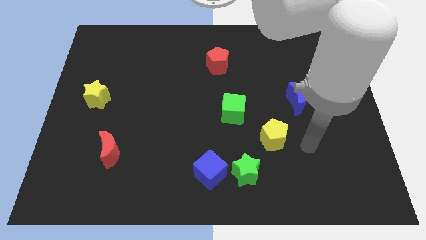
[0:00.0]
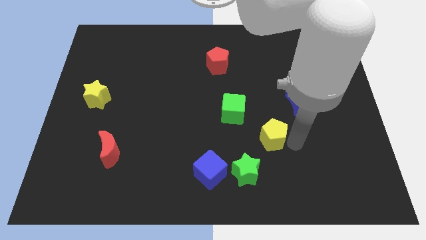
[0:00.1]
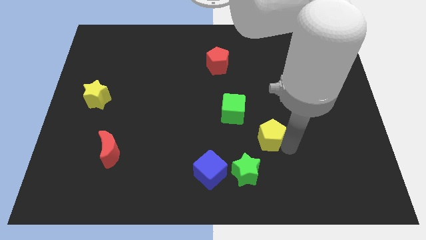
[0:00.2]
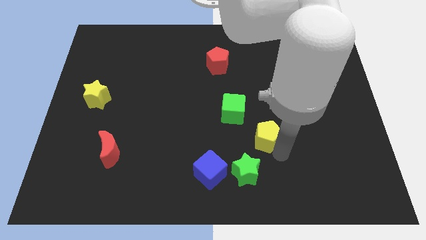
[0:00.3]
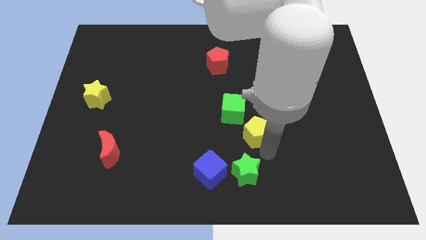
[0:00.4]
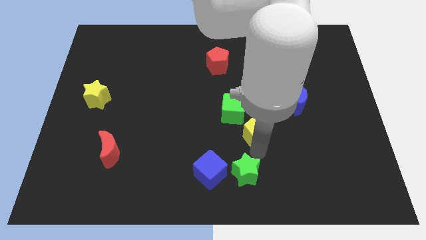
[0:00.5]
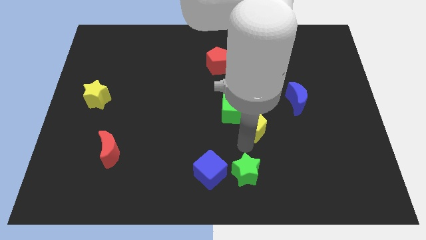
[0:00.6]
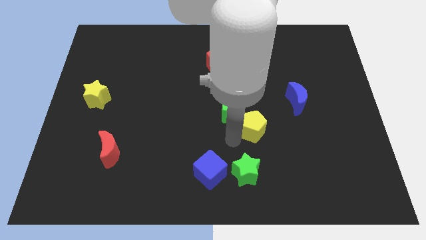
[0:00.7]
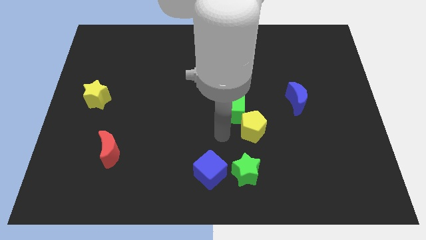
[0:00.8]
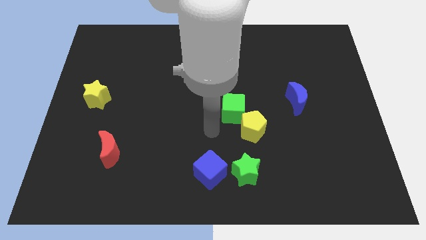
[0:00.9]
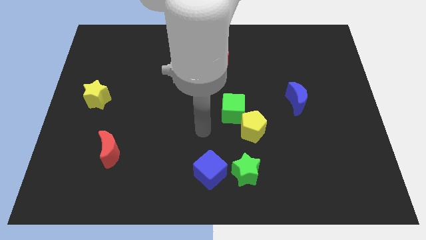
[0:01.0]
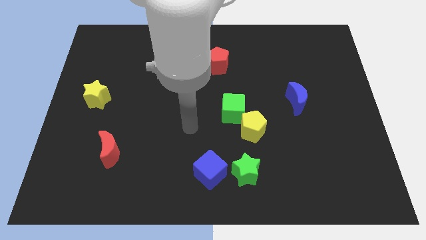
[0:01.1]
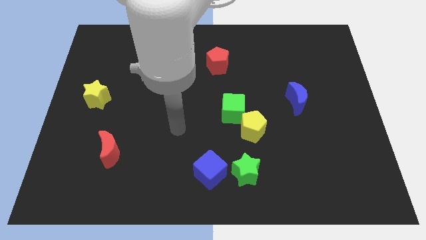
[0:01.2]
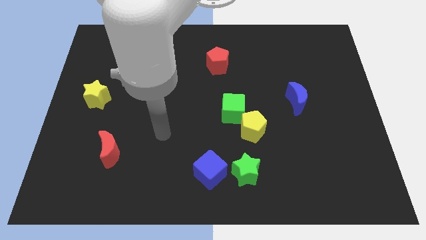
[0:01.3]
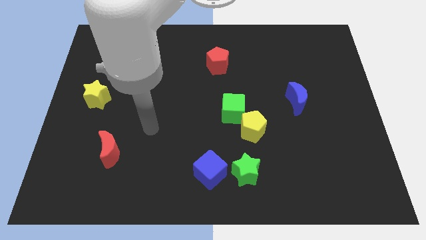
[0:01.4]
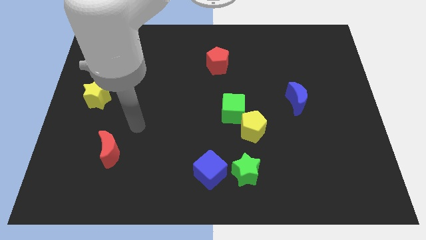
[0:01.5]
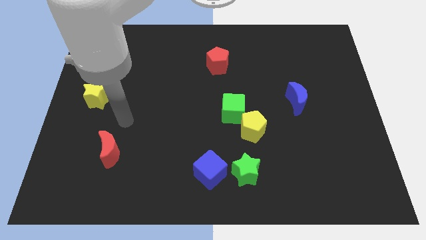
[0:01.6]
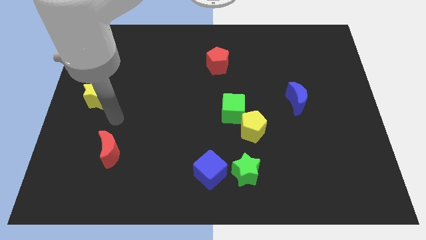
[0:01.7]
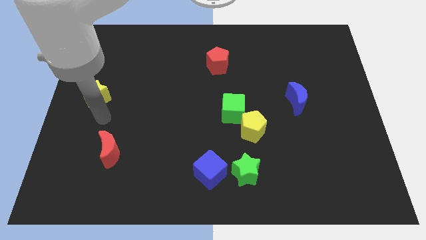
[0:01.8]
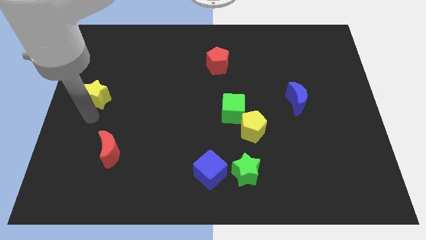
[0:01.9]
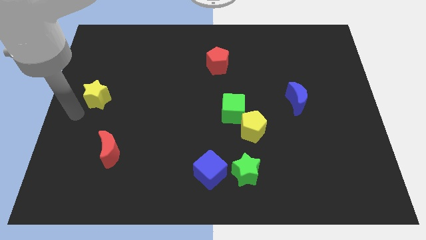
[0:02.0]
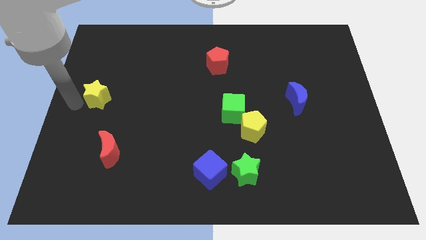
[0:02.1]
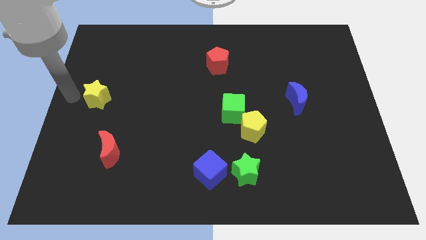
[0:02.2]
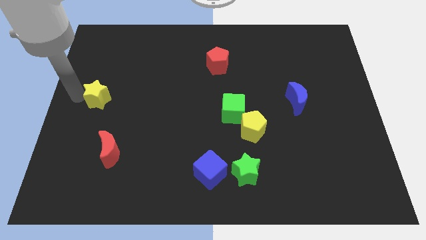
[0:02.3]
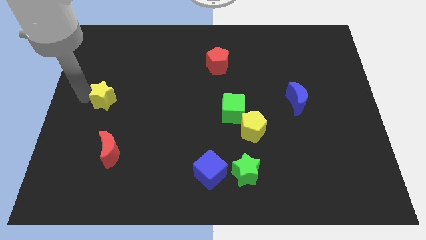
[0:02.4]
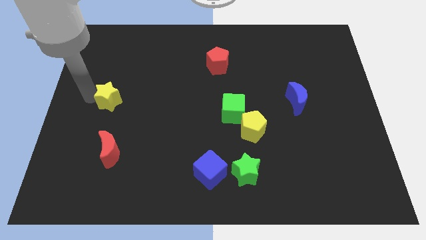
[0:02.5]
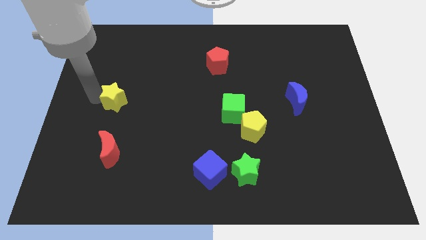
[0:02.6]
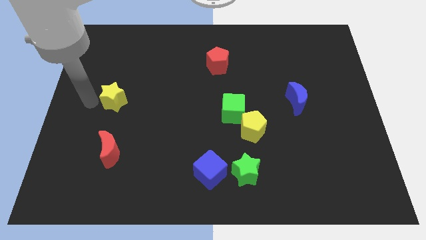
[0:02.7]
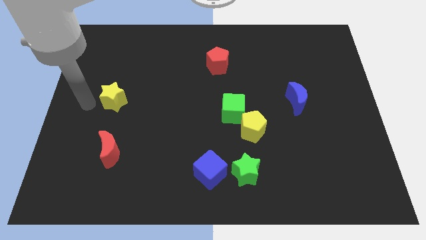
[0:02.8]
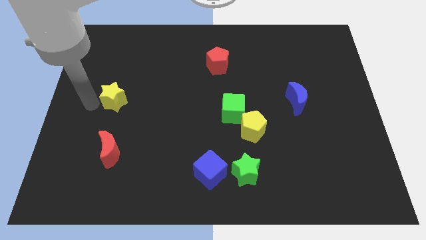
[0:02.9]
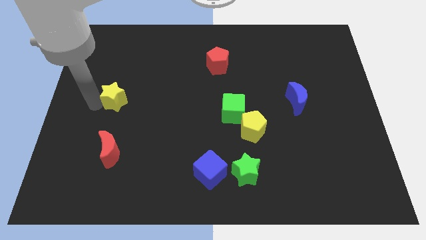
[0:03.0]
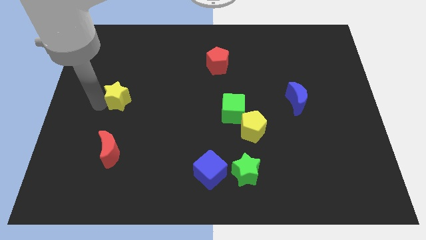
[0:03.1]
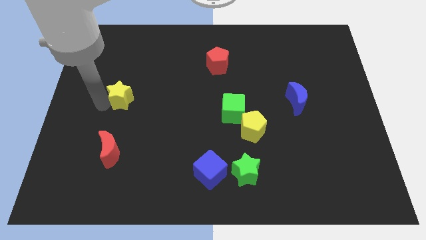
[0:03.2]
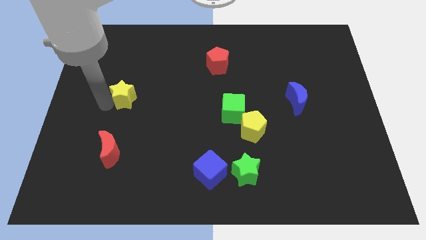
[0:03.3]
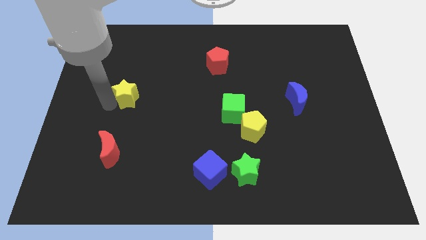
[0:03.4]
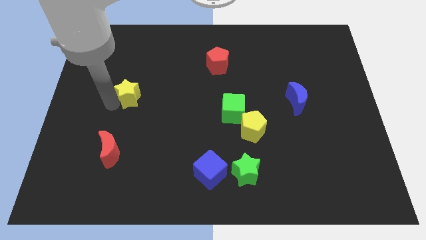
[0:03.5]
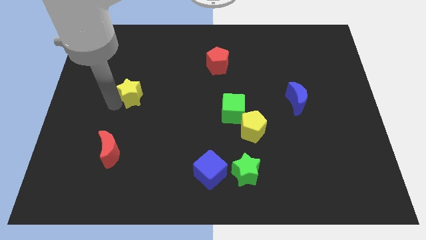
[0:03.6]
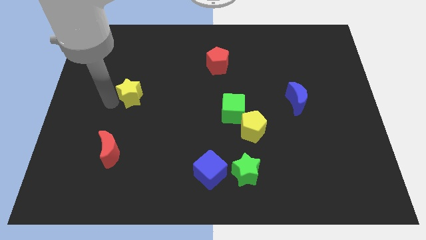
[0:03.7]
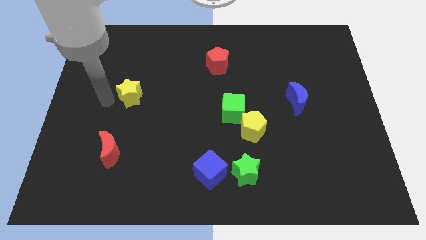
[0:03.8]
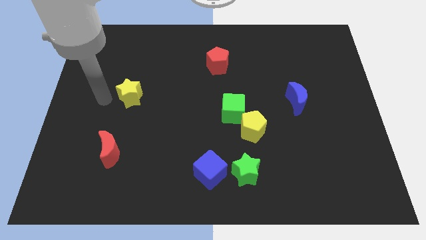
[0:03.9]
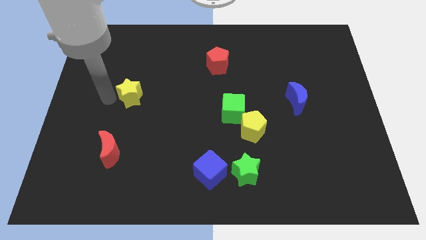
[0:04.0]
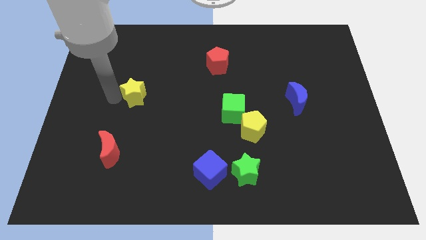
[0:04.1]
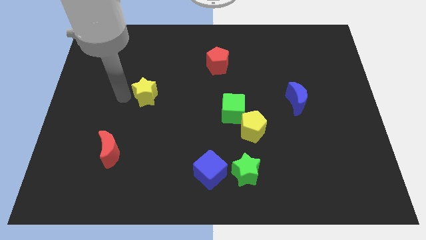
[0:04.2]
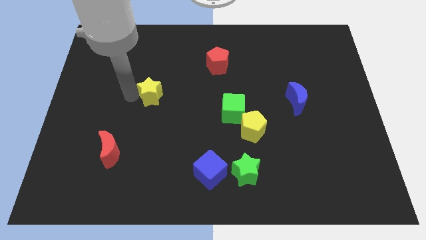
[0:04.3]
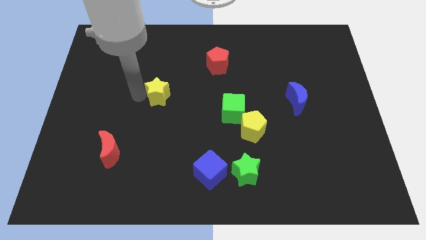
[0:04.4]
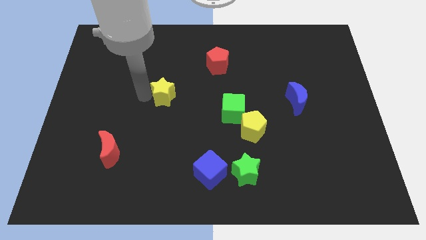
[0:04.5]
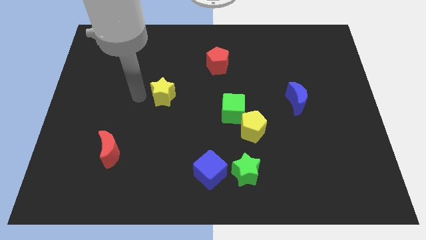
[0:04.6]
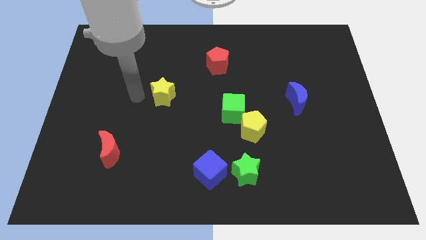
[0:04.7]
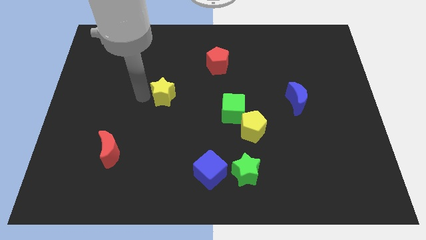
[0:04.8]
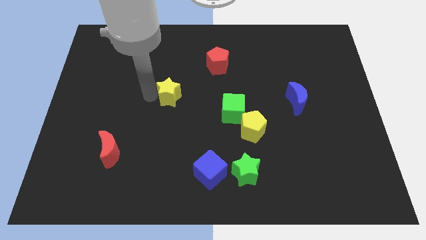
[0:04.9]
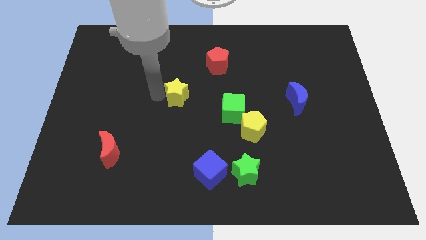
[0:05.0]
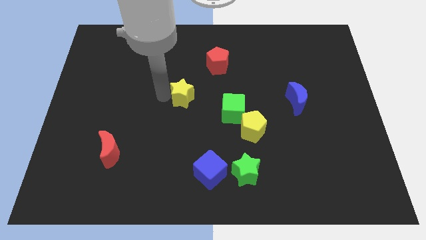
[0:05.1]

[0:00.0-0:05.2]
push the yellow star to the right

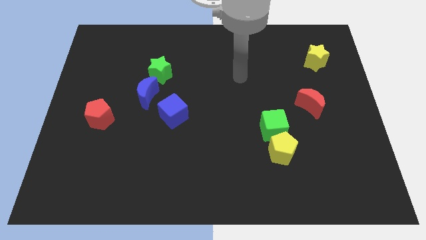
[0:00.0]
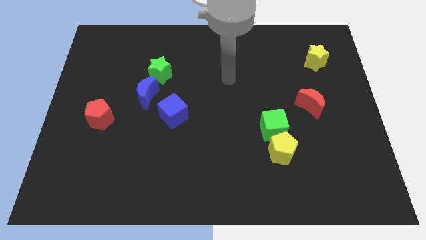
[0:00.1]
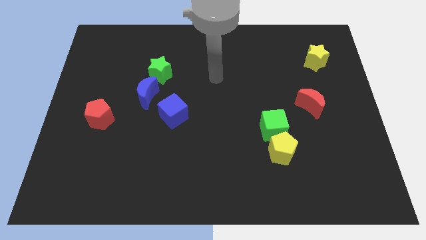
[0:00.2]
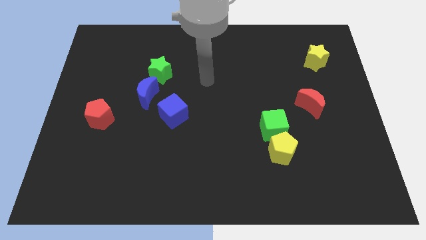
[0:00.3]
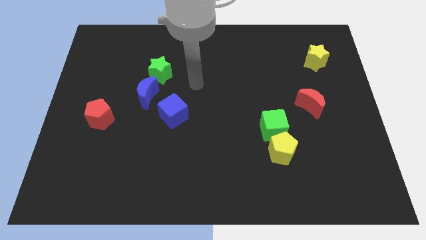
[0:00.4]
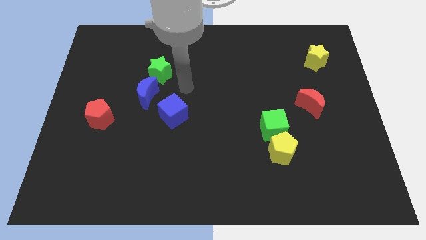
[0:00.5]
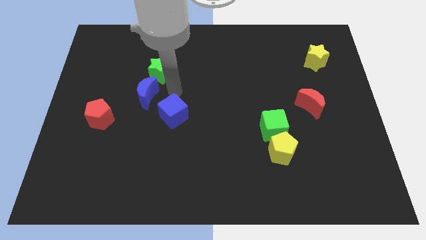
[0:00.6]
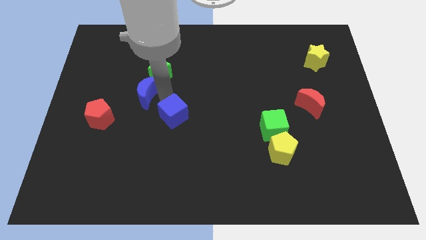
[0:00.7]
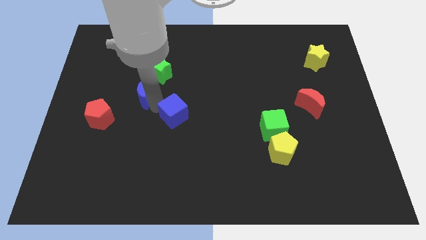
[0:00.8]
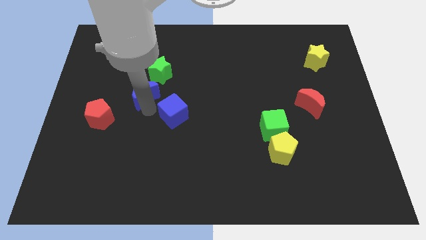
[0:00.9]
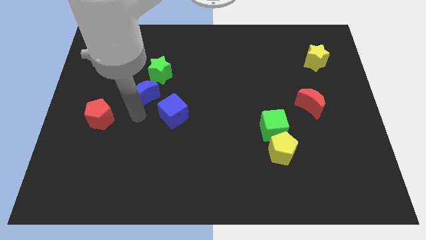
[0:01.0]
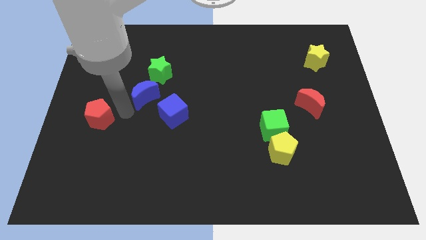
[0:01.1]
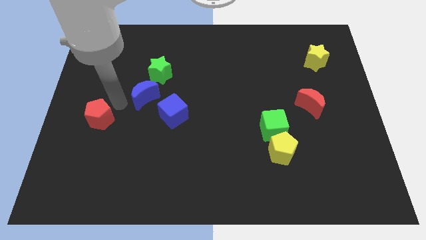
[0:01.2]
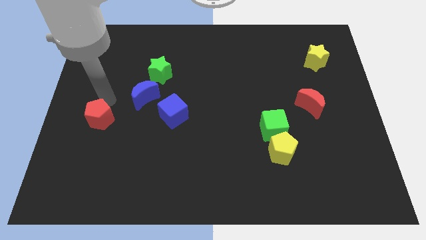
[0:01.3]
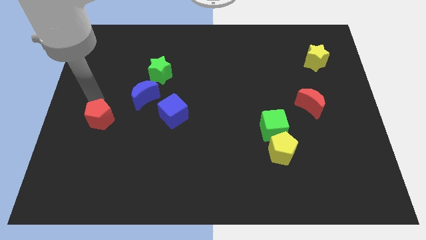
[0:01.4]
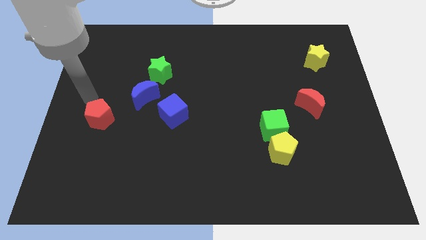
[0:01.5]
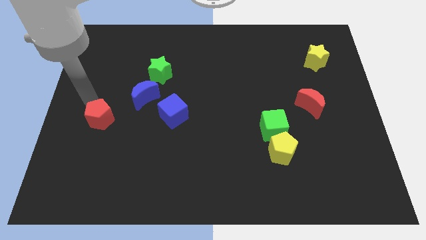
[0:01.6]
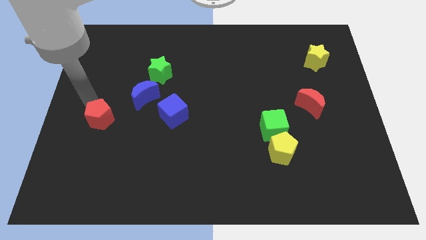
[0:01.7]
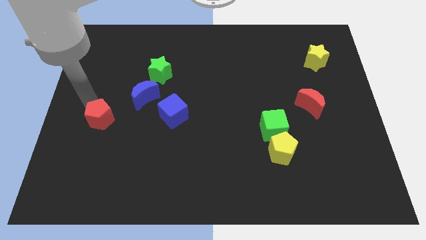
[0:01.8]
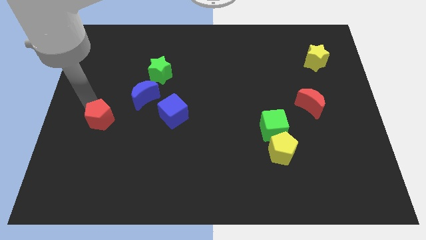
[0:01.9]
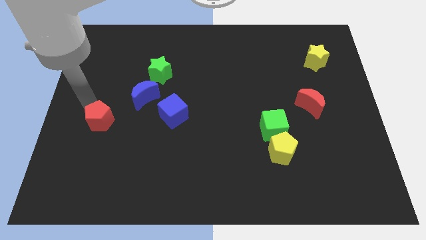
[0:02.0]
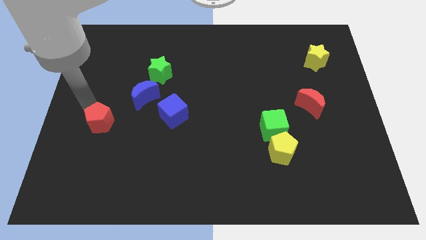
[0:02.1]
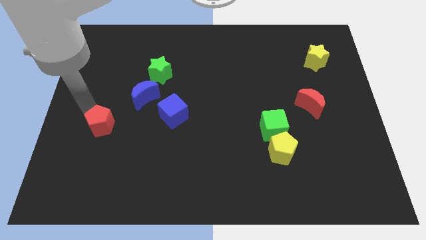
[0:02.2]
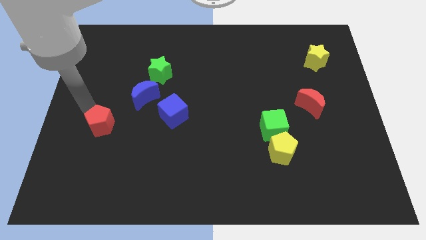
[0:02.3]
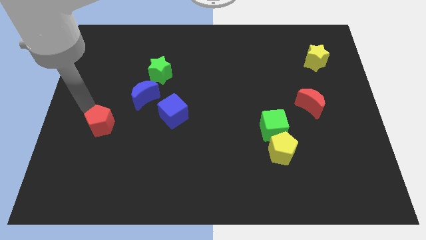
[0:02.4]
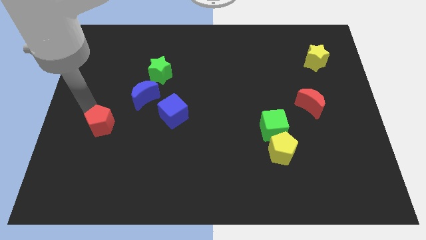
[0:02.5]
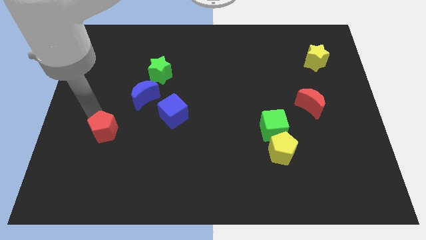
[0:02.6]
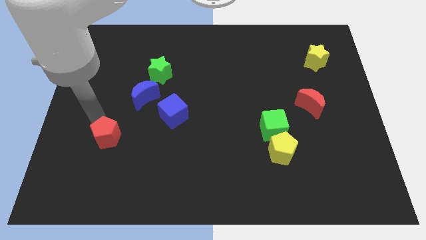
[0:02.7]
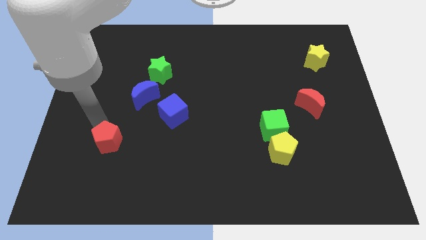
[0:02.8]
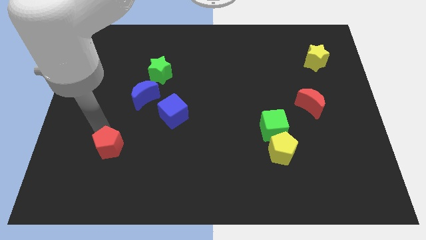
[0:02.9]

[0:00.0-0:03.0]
slightly slide the red pentagon downwards and then right
